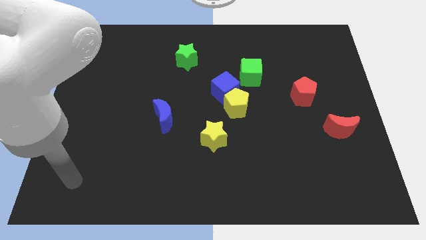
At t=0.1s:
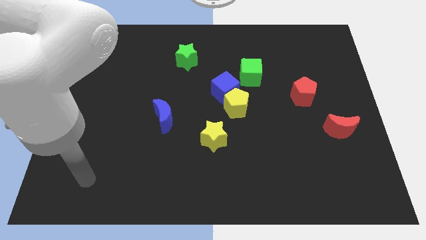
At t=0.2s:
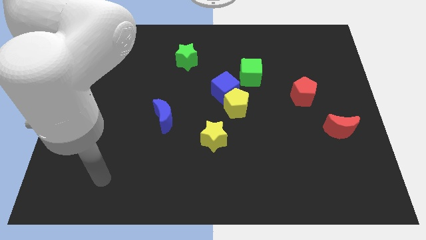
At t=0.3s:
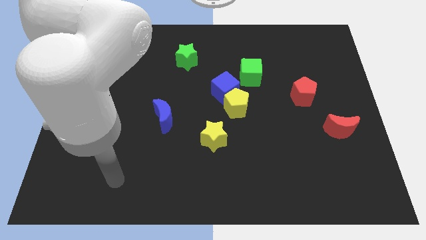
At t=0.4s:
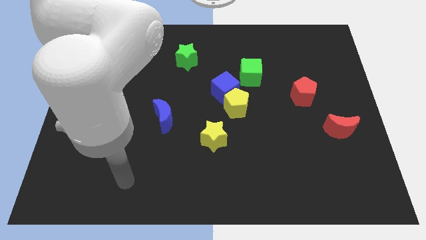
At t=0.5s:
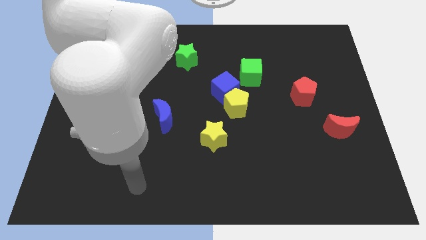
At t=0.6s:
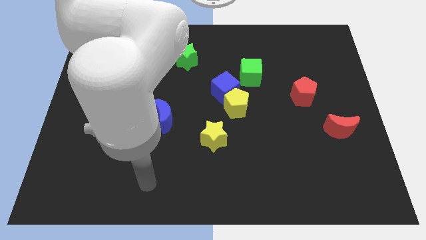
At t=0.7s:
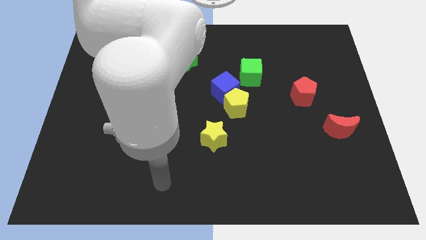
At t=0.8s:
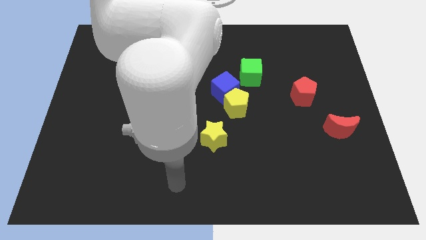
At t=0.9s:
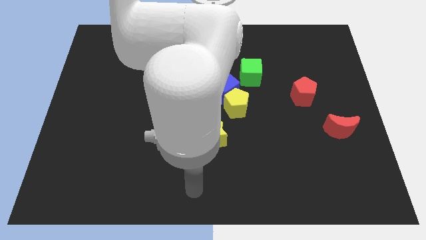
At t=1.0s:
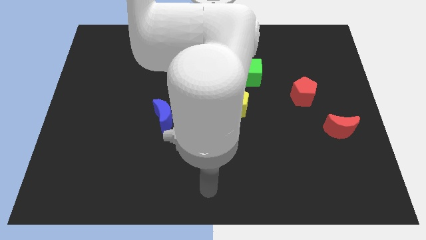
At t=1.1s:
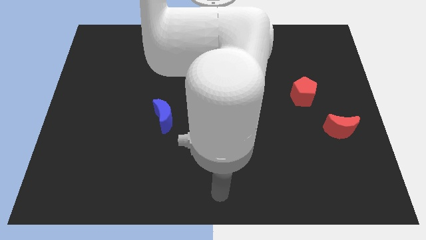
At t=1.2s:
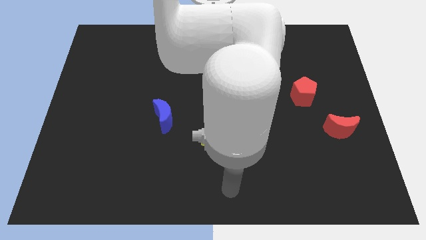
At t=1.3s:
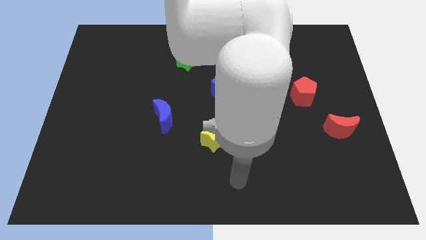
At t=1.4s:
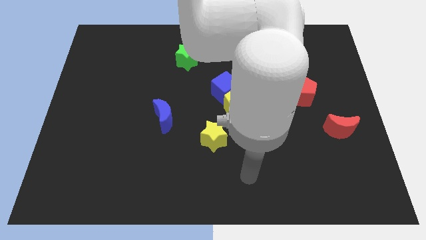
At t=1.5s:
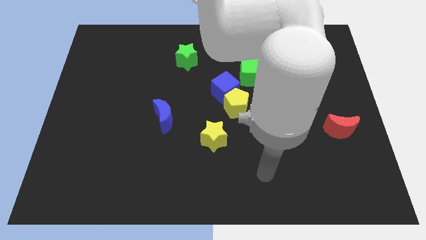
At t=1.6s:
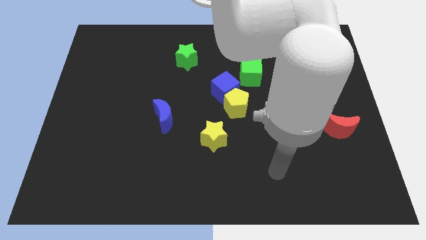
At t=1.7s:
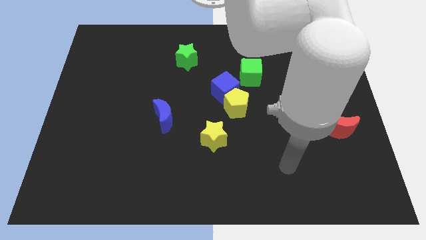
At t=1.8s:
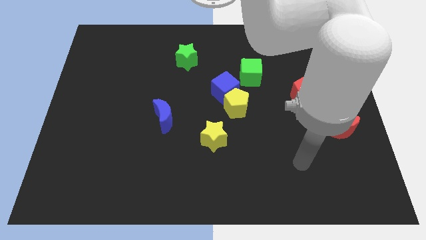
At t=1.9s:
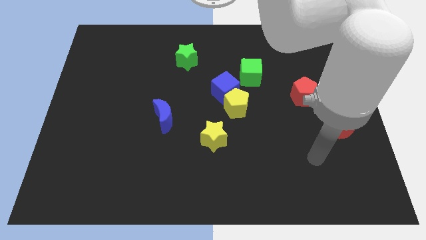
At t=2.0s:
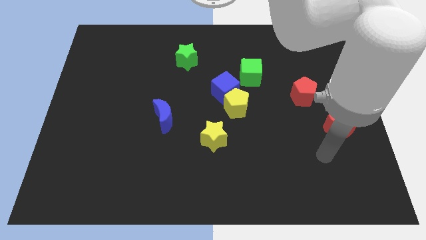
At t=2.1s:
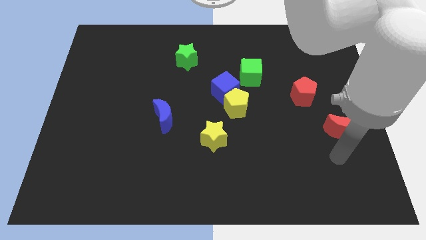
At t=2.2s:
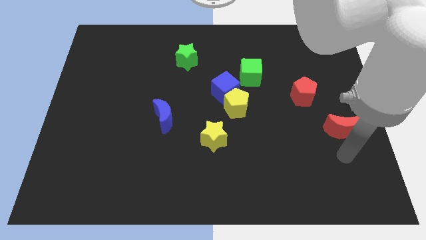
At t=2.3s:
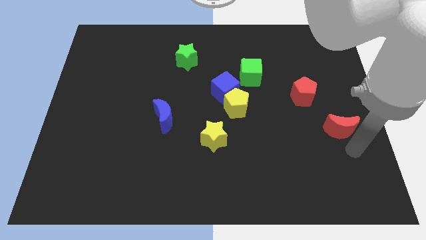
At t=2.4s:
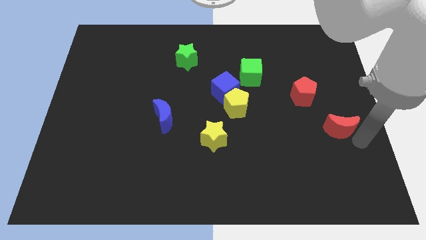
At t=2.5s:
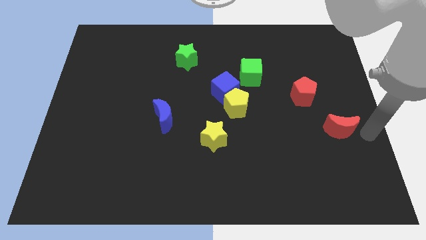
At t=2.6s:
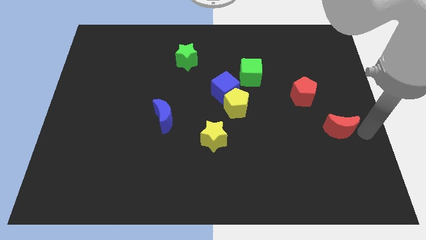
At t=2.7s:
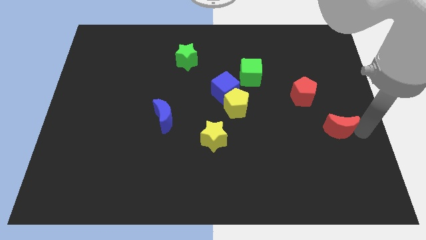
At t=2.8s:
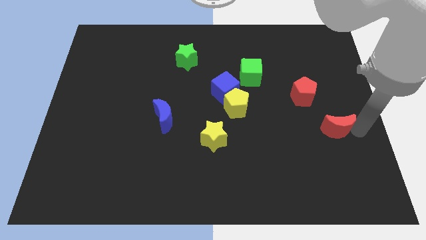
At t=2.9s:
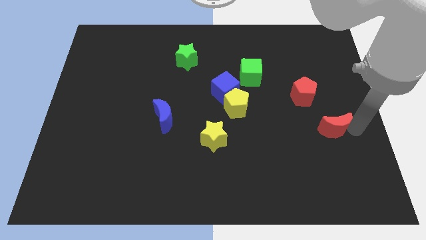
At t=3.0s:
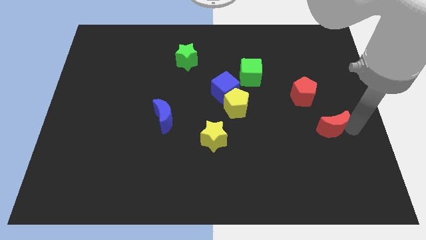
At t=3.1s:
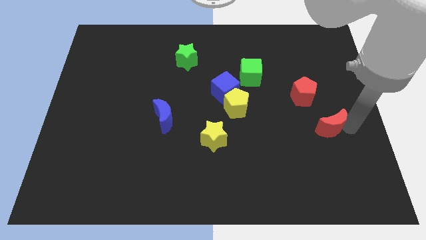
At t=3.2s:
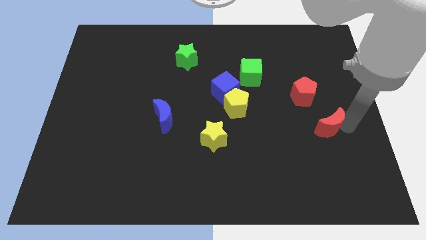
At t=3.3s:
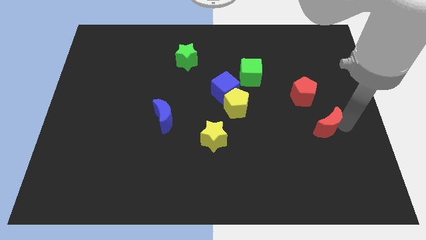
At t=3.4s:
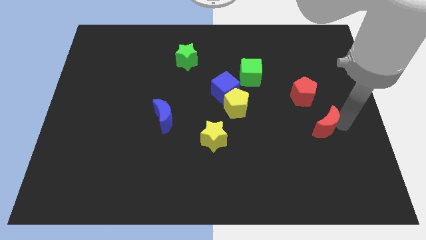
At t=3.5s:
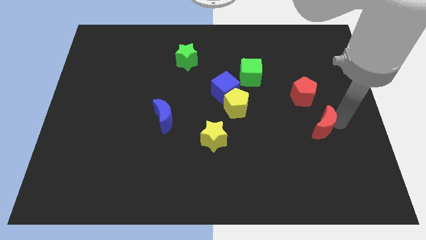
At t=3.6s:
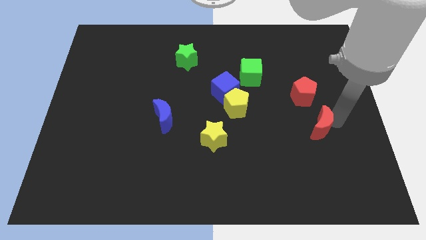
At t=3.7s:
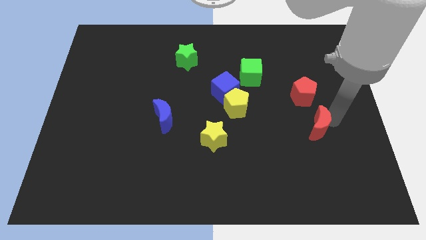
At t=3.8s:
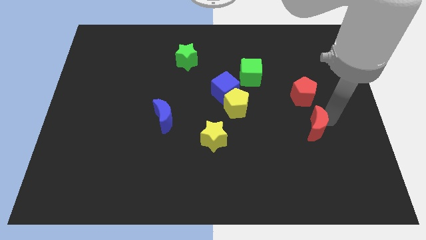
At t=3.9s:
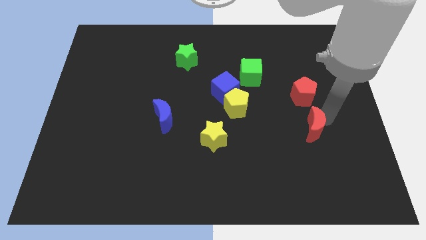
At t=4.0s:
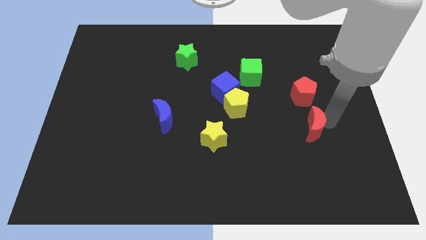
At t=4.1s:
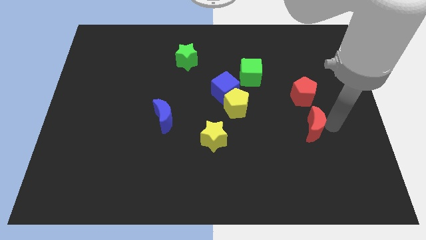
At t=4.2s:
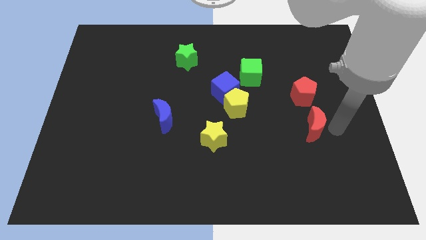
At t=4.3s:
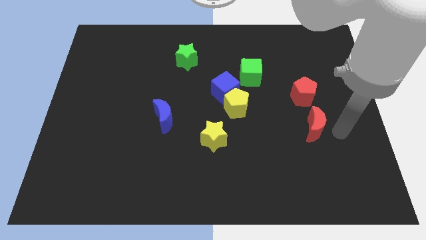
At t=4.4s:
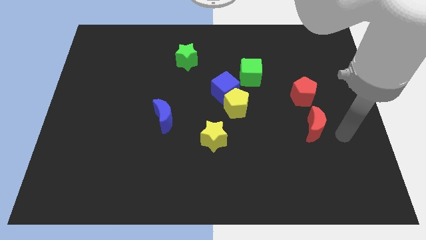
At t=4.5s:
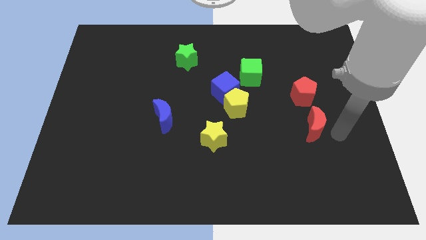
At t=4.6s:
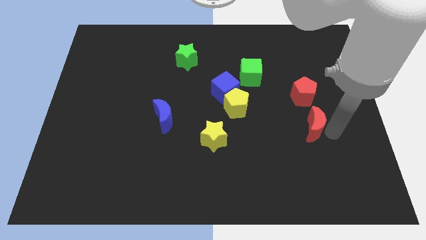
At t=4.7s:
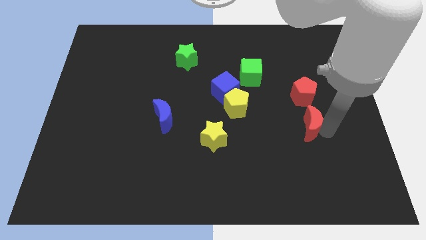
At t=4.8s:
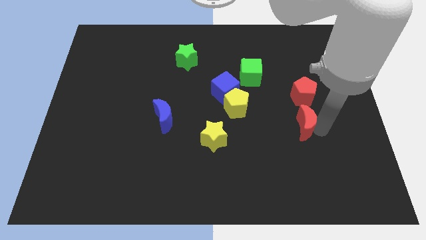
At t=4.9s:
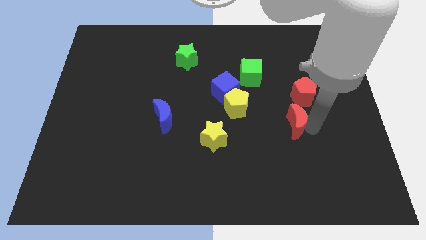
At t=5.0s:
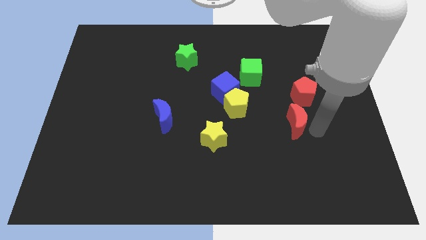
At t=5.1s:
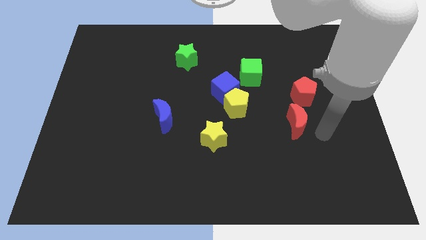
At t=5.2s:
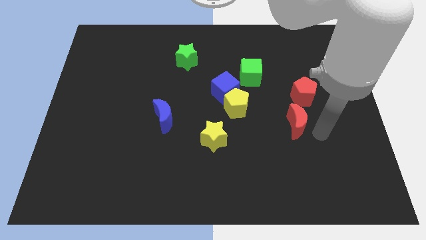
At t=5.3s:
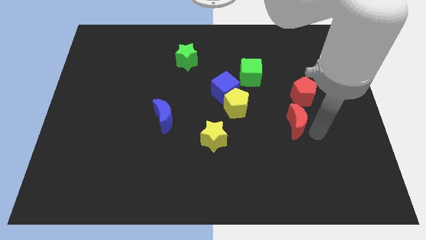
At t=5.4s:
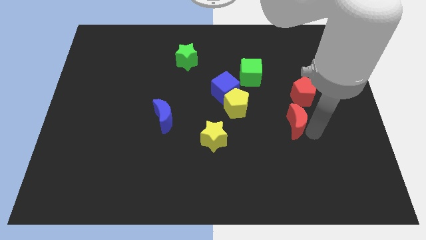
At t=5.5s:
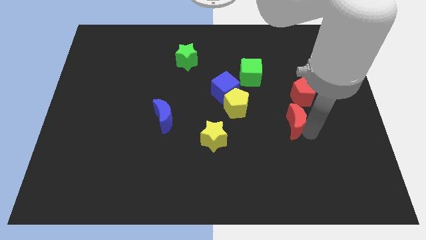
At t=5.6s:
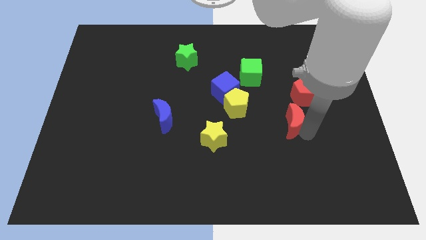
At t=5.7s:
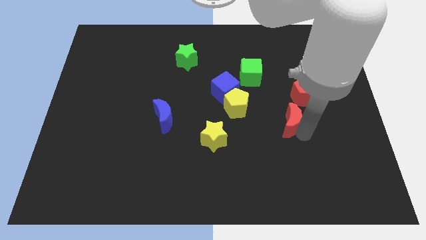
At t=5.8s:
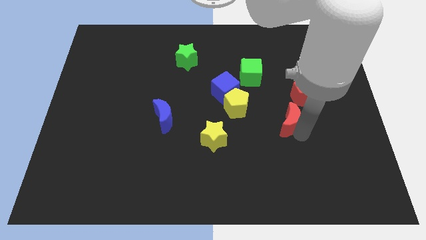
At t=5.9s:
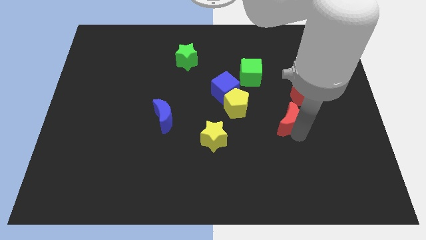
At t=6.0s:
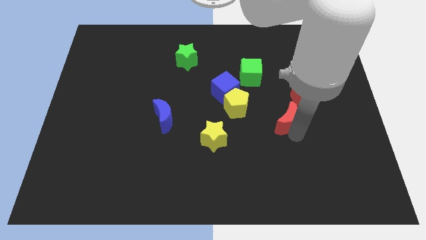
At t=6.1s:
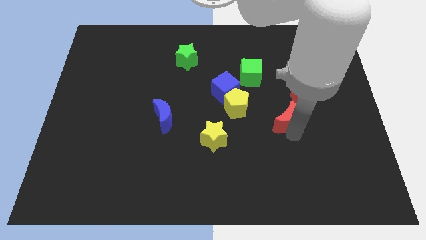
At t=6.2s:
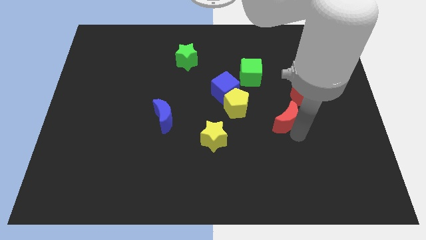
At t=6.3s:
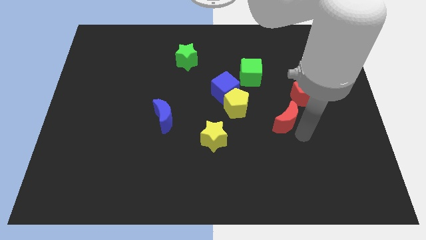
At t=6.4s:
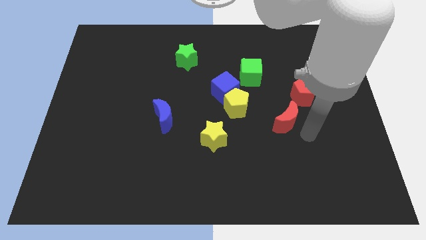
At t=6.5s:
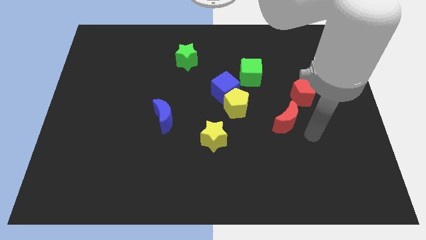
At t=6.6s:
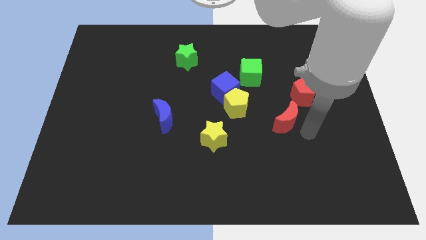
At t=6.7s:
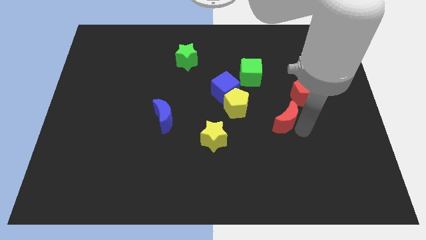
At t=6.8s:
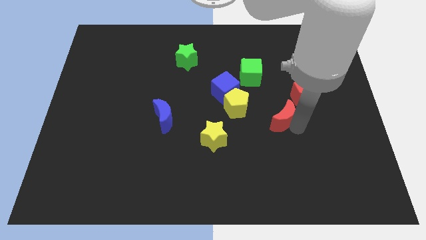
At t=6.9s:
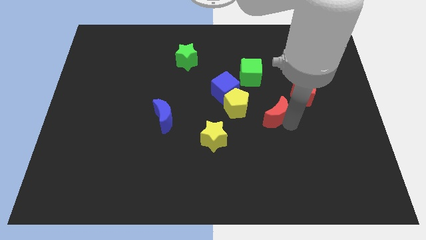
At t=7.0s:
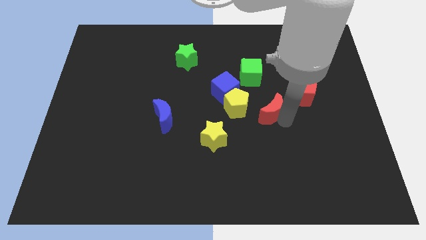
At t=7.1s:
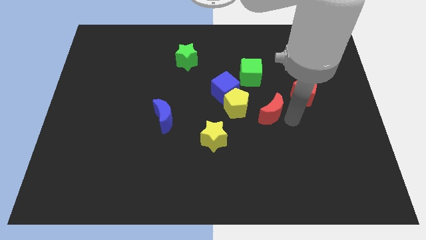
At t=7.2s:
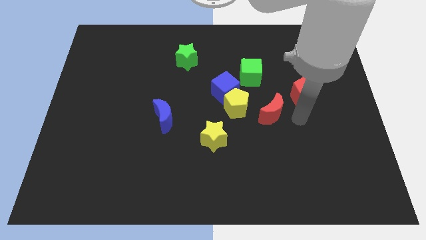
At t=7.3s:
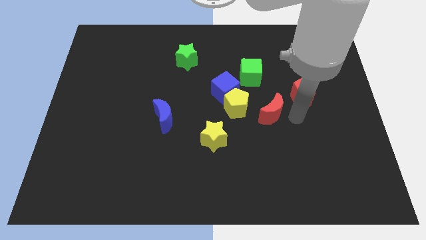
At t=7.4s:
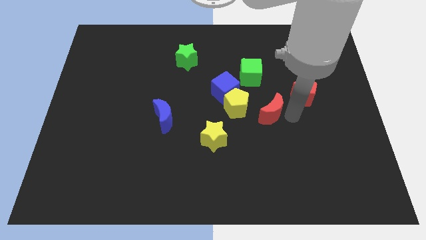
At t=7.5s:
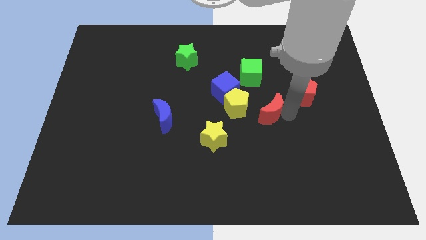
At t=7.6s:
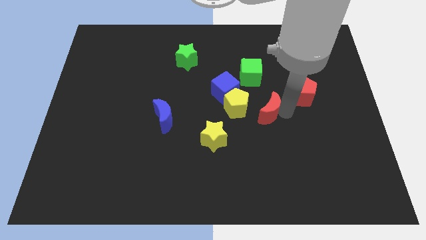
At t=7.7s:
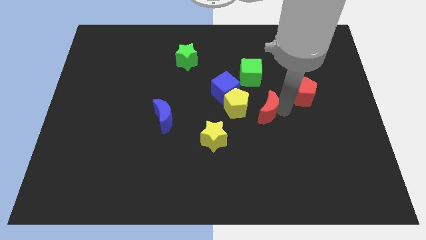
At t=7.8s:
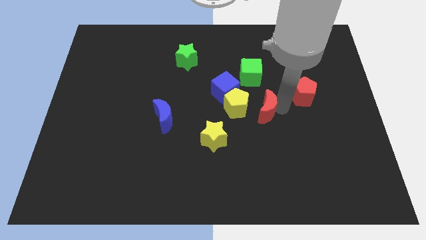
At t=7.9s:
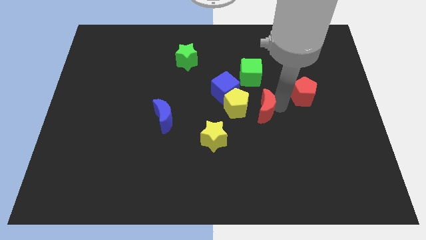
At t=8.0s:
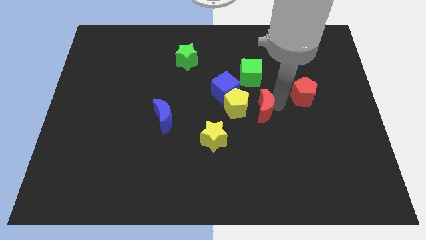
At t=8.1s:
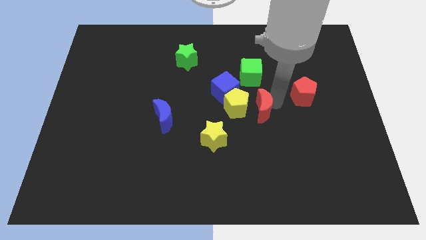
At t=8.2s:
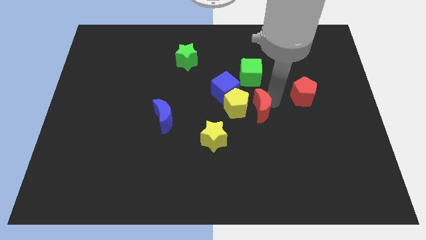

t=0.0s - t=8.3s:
push the red moon next to the yellow pentagon
